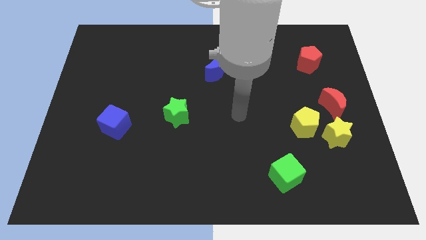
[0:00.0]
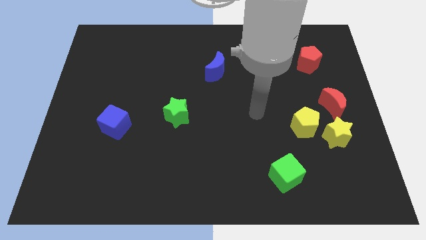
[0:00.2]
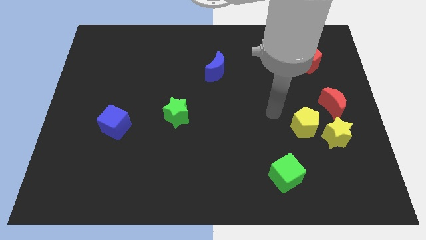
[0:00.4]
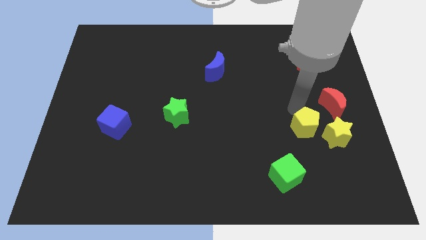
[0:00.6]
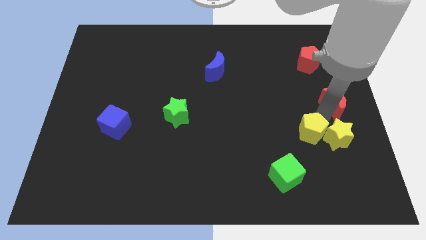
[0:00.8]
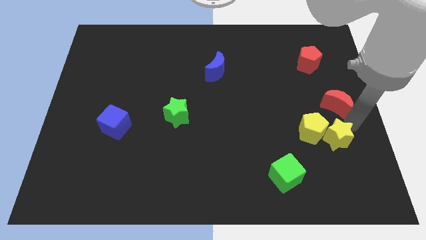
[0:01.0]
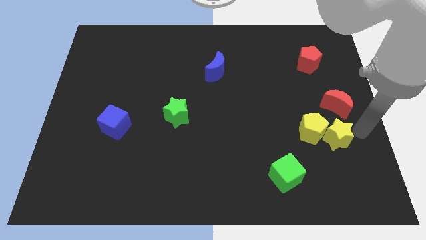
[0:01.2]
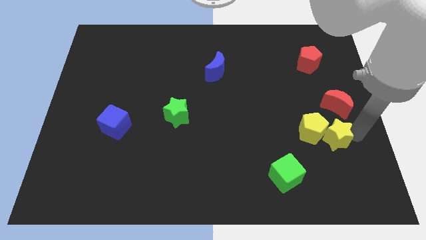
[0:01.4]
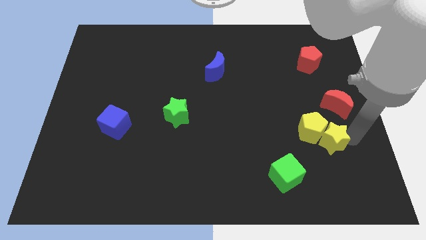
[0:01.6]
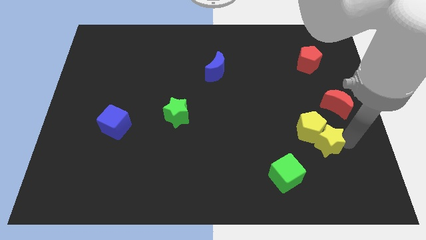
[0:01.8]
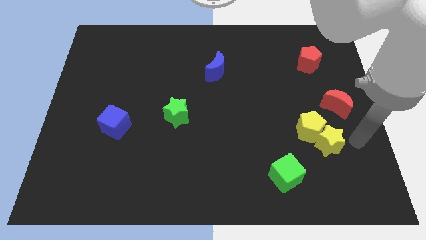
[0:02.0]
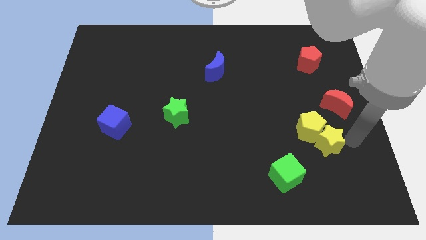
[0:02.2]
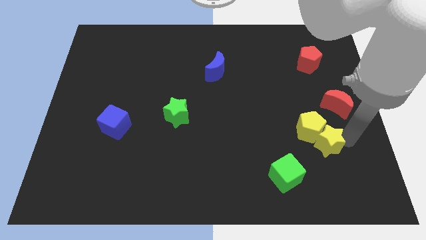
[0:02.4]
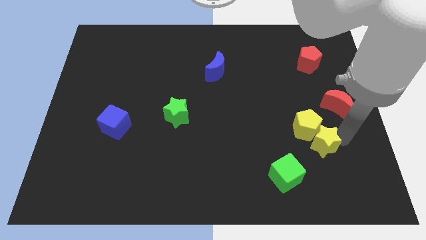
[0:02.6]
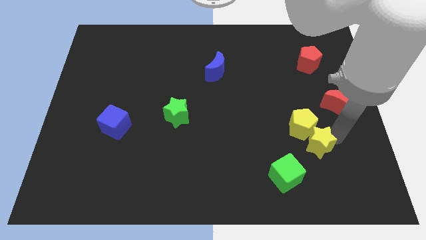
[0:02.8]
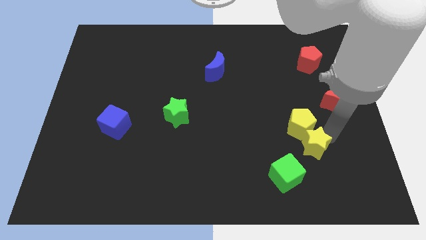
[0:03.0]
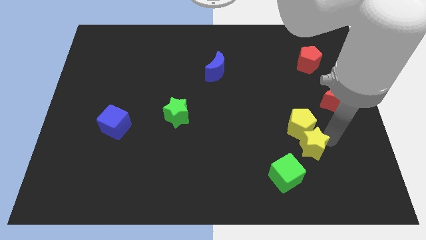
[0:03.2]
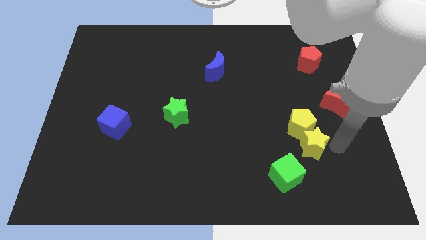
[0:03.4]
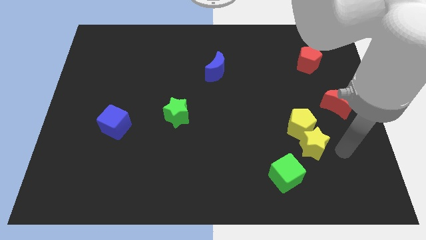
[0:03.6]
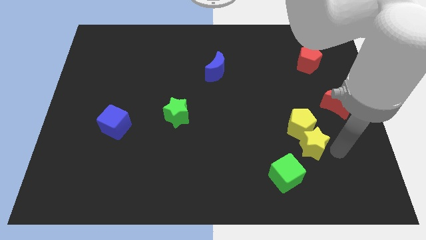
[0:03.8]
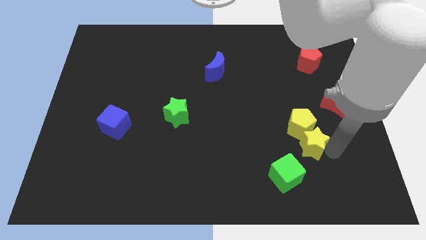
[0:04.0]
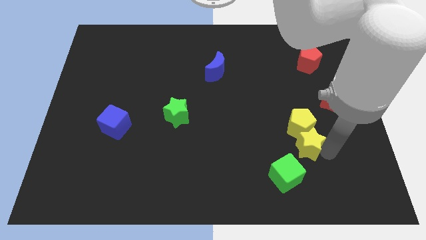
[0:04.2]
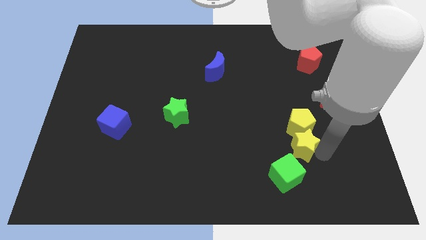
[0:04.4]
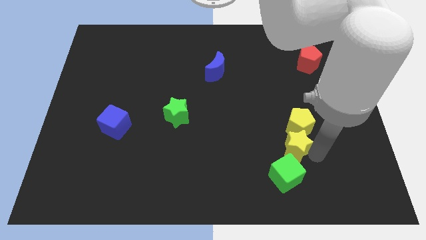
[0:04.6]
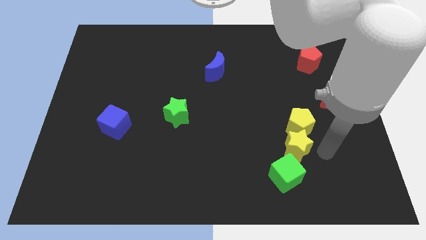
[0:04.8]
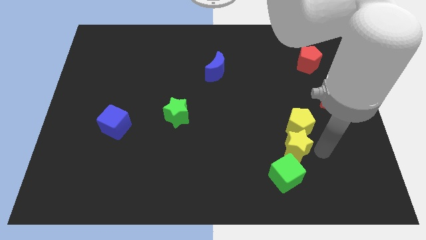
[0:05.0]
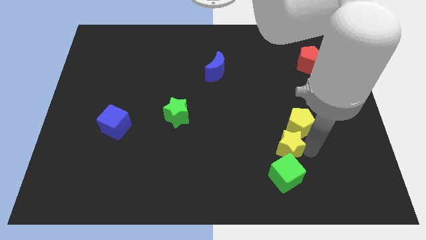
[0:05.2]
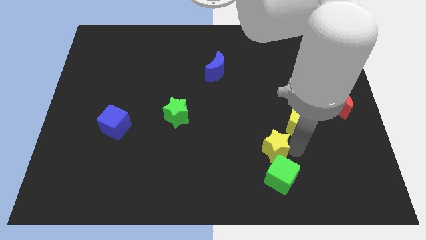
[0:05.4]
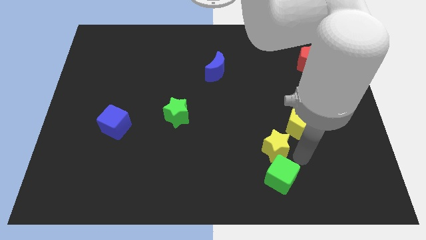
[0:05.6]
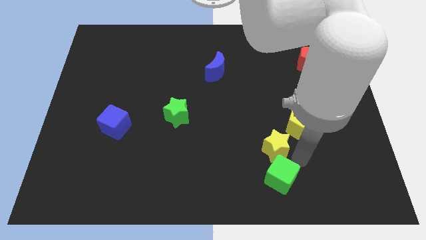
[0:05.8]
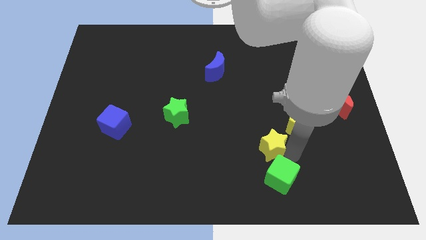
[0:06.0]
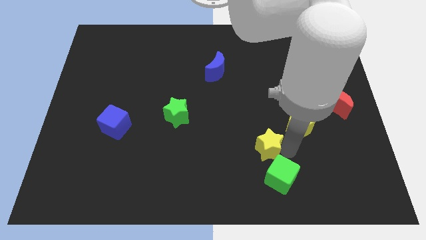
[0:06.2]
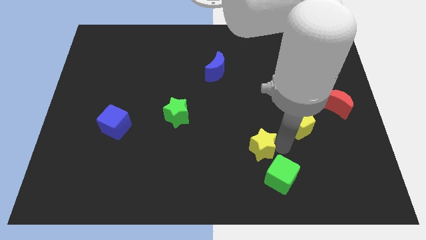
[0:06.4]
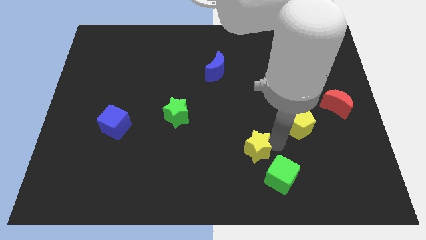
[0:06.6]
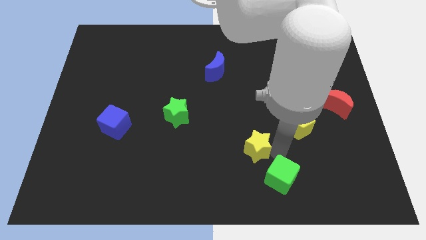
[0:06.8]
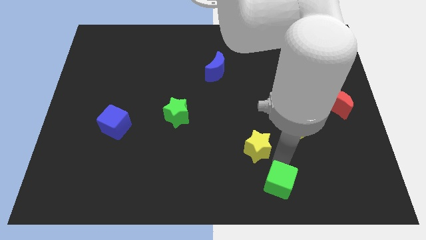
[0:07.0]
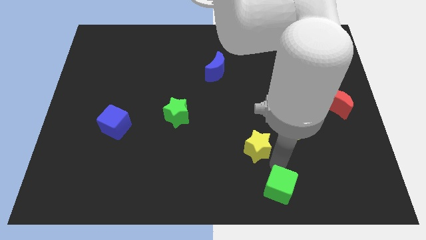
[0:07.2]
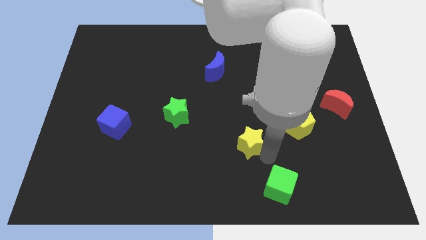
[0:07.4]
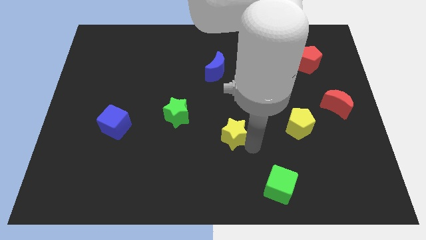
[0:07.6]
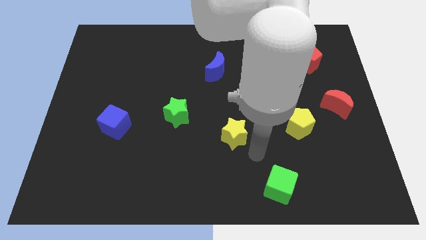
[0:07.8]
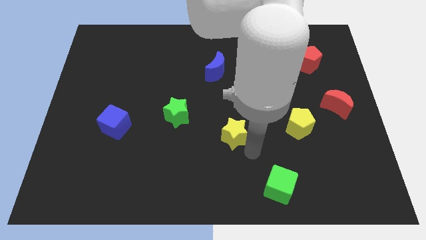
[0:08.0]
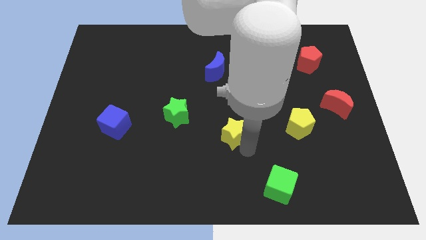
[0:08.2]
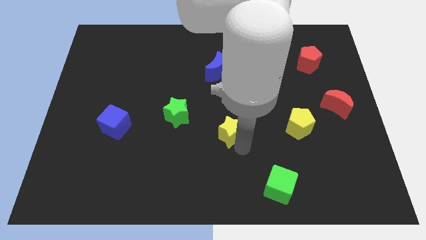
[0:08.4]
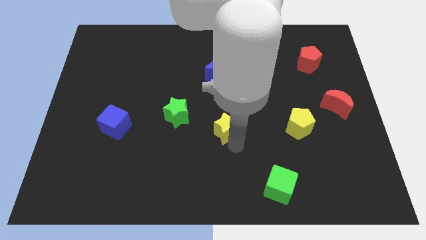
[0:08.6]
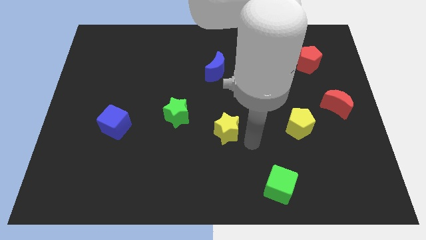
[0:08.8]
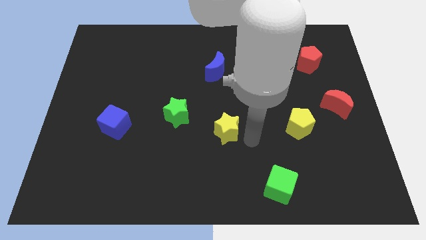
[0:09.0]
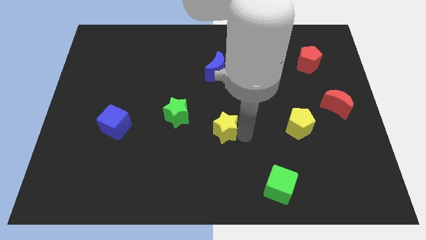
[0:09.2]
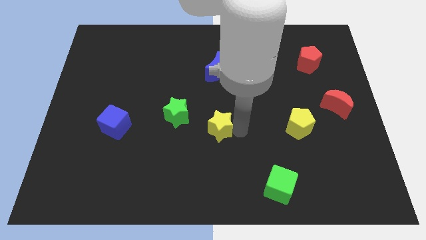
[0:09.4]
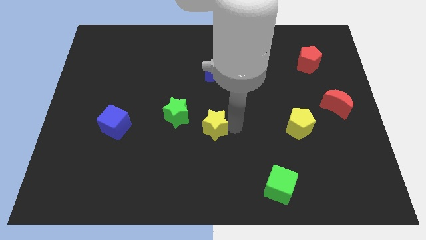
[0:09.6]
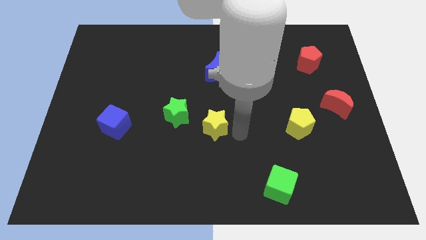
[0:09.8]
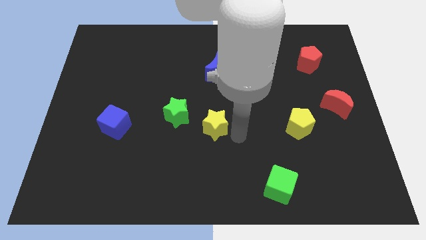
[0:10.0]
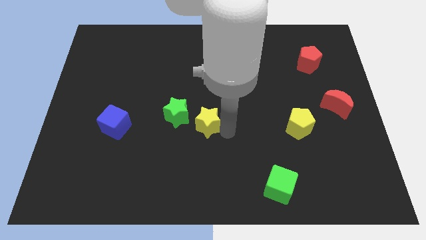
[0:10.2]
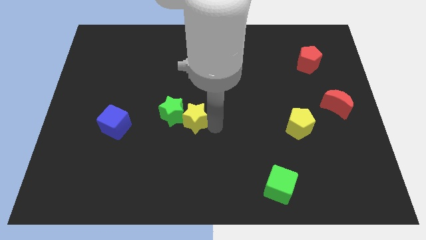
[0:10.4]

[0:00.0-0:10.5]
slide the yellow star next to the green star

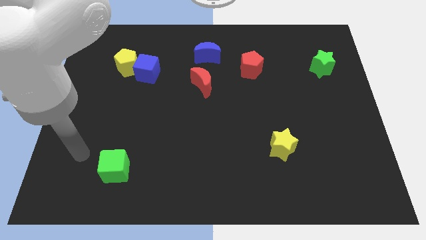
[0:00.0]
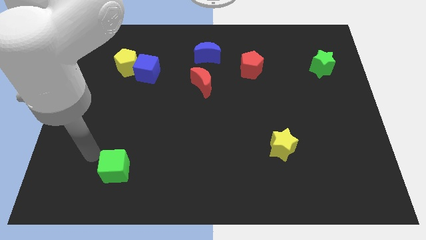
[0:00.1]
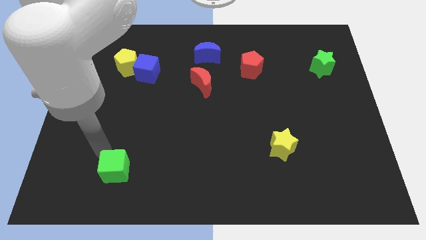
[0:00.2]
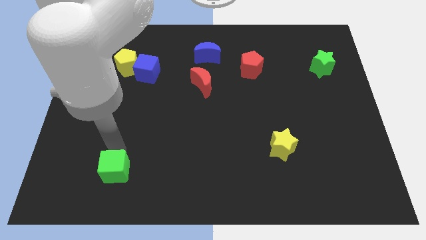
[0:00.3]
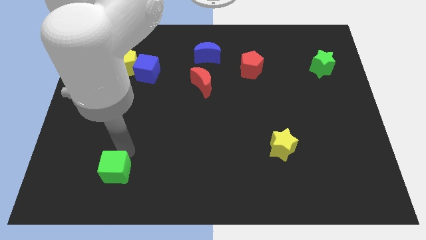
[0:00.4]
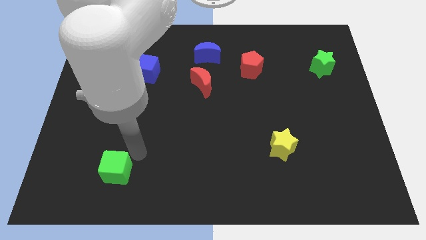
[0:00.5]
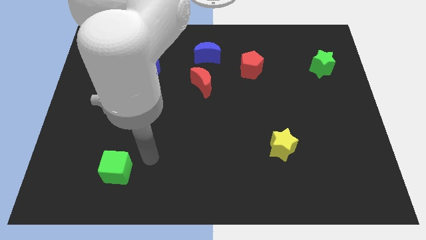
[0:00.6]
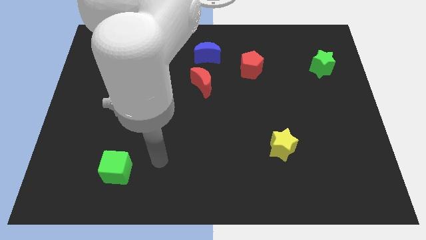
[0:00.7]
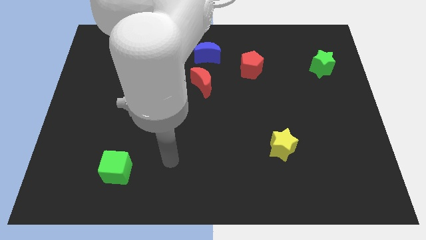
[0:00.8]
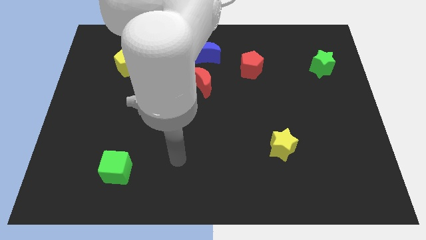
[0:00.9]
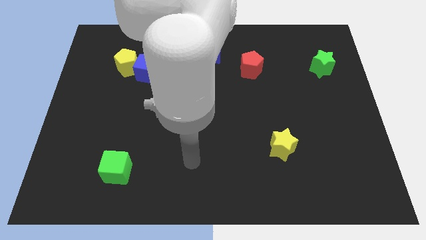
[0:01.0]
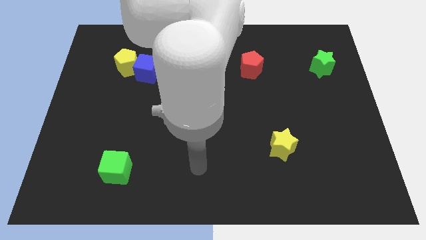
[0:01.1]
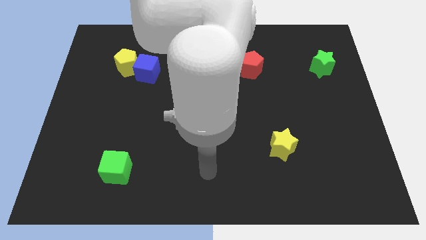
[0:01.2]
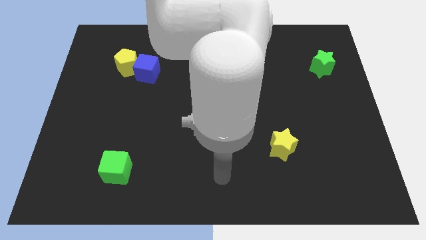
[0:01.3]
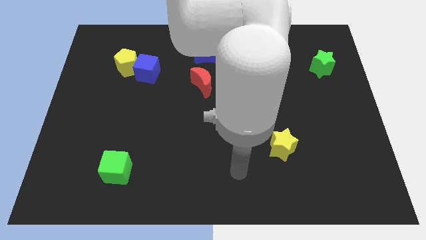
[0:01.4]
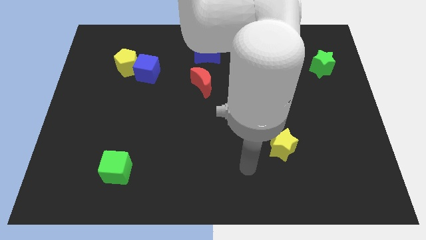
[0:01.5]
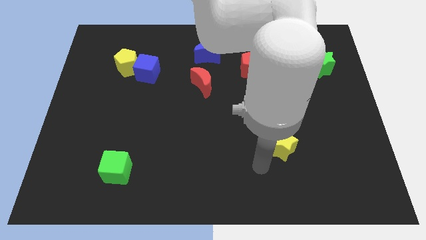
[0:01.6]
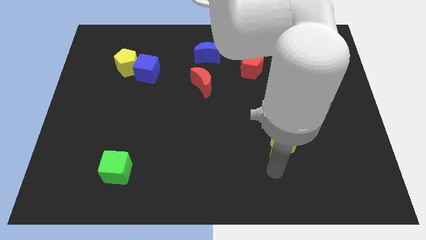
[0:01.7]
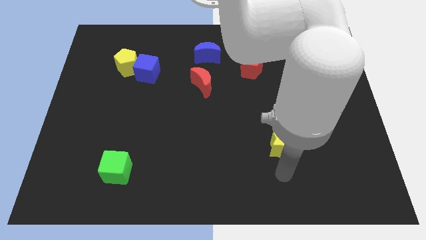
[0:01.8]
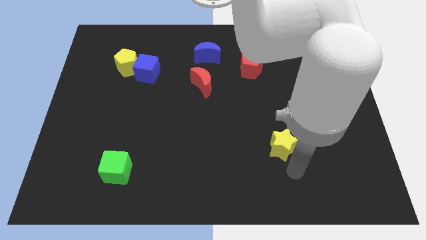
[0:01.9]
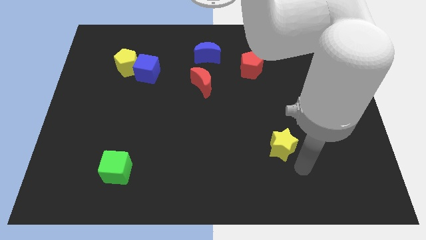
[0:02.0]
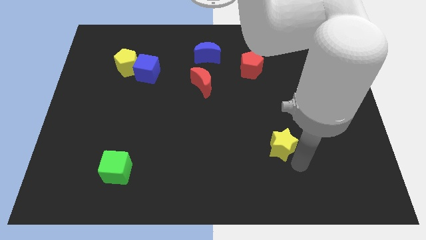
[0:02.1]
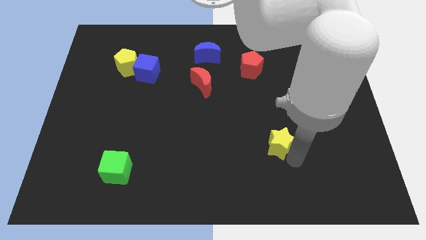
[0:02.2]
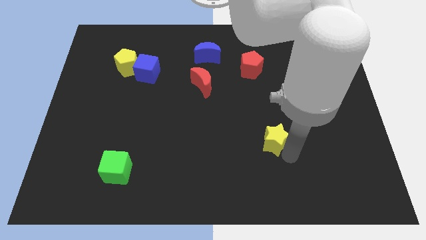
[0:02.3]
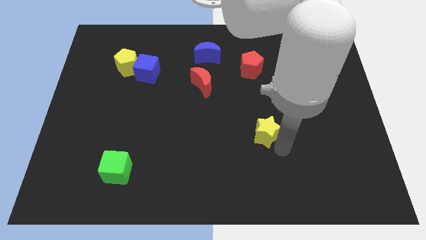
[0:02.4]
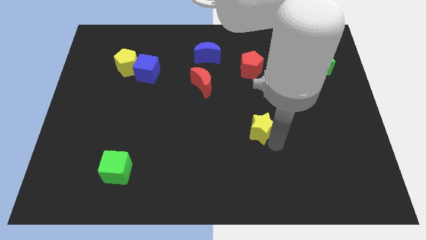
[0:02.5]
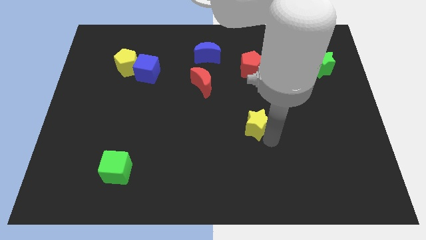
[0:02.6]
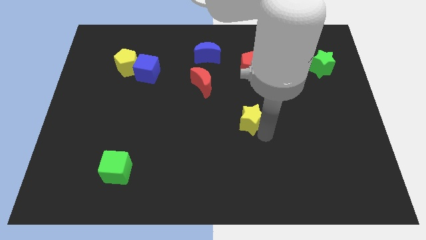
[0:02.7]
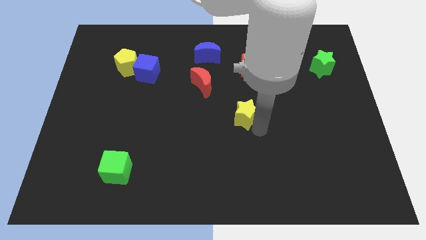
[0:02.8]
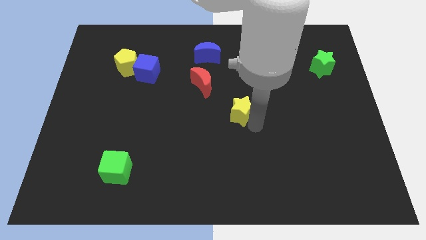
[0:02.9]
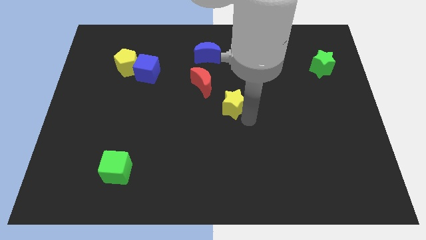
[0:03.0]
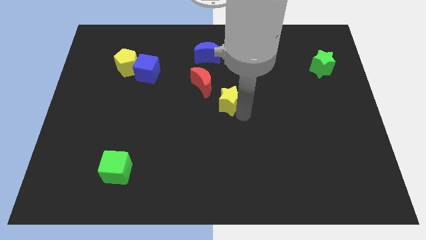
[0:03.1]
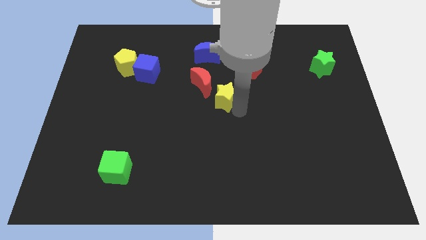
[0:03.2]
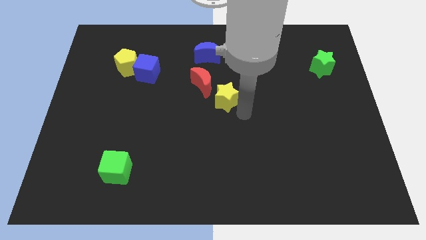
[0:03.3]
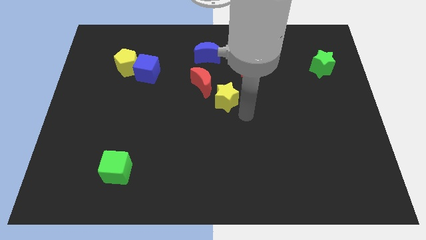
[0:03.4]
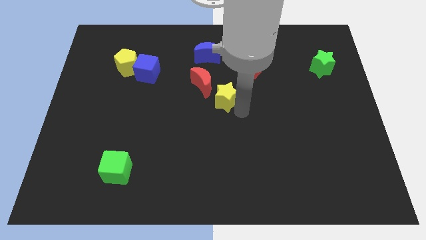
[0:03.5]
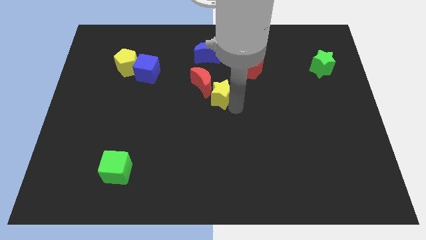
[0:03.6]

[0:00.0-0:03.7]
put the yellow star close to the red moon
